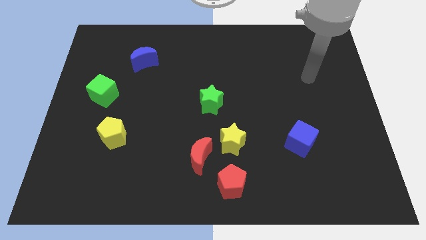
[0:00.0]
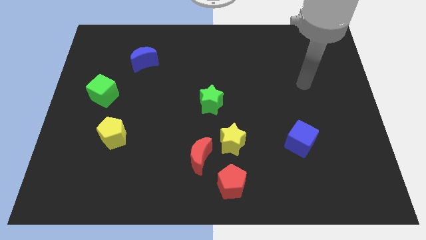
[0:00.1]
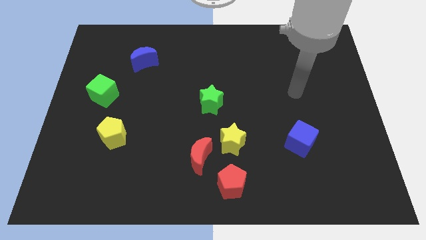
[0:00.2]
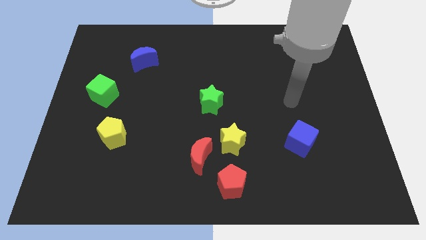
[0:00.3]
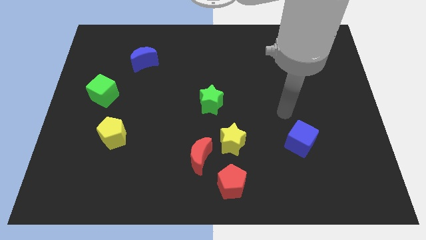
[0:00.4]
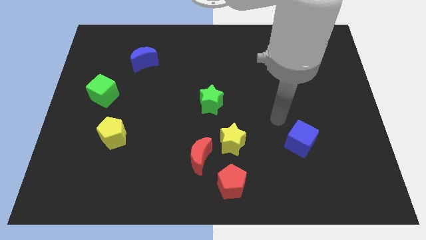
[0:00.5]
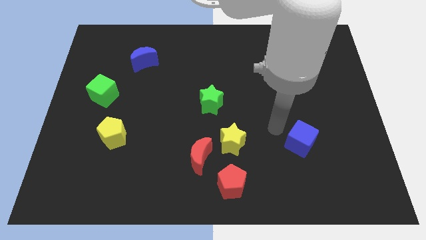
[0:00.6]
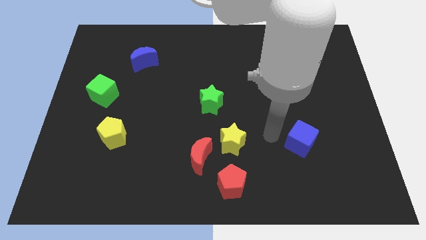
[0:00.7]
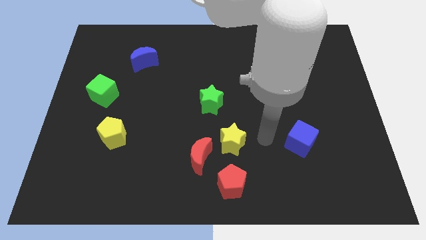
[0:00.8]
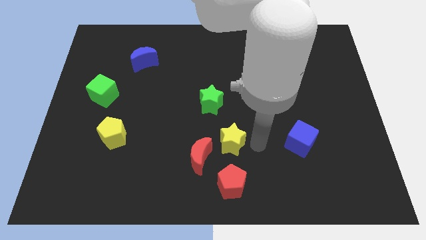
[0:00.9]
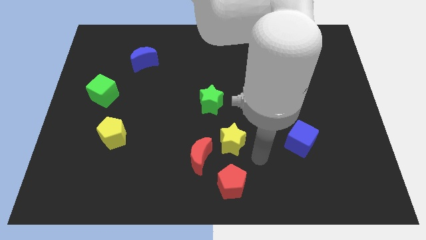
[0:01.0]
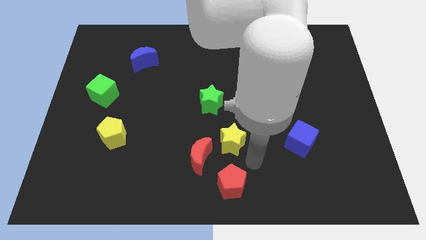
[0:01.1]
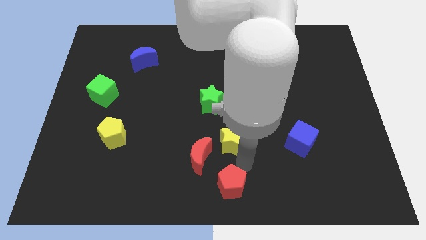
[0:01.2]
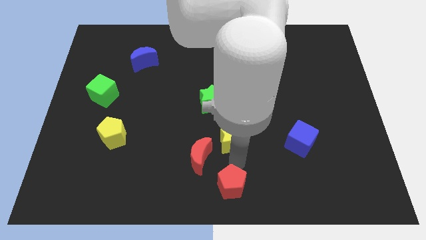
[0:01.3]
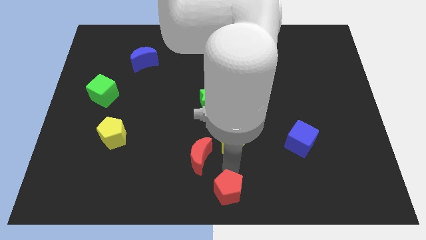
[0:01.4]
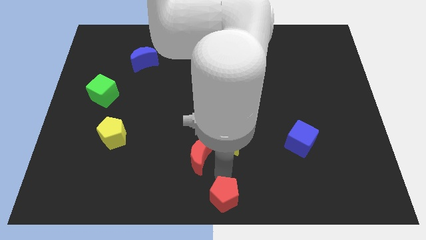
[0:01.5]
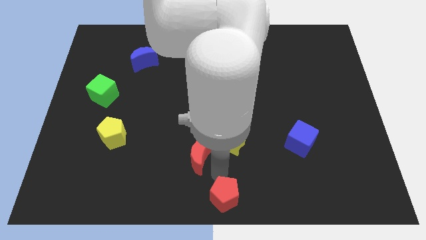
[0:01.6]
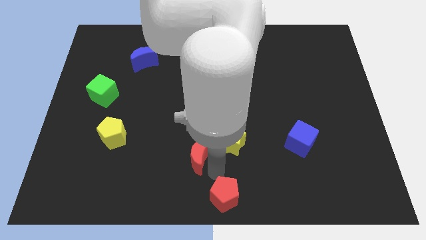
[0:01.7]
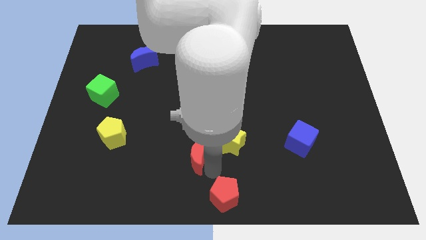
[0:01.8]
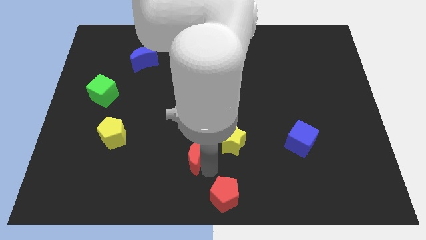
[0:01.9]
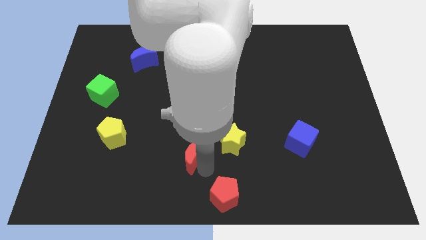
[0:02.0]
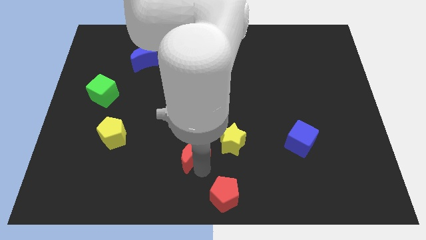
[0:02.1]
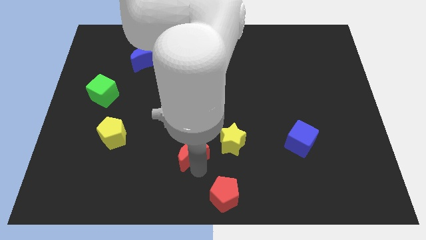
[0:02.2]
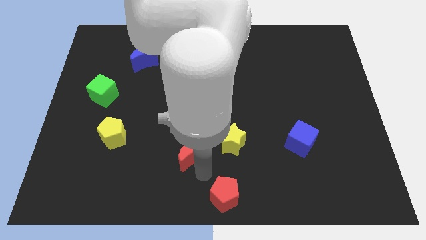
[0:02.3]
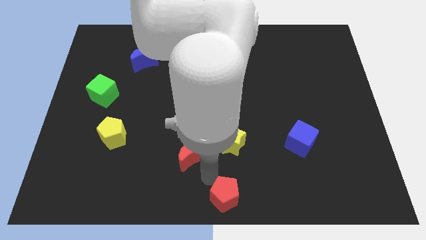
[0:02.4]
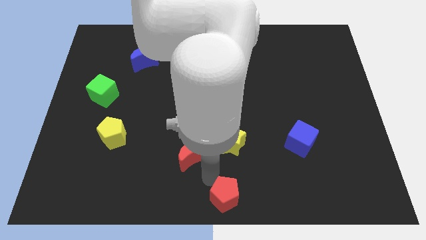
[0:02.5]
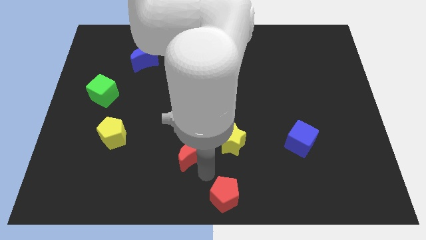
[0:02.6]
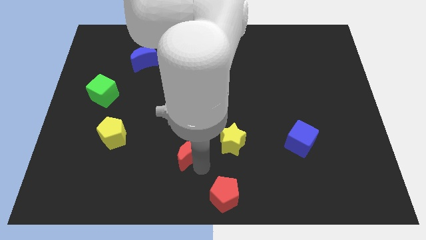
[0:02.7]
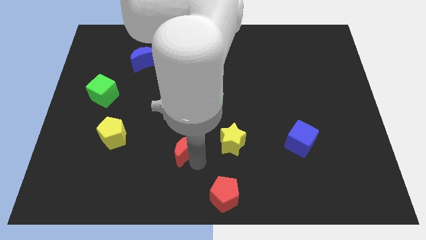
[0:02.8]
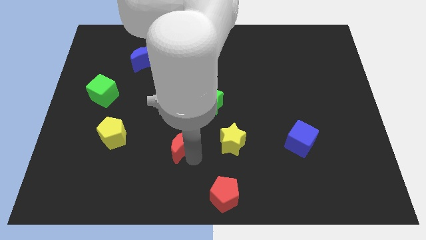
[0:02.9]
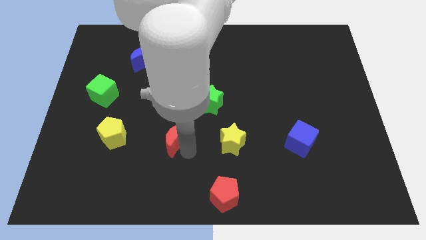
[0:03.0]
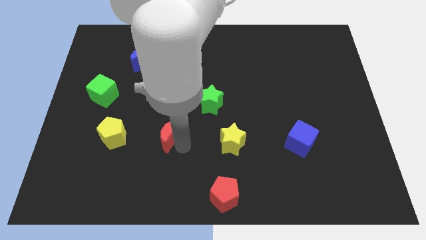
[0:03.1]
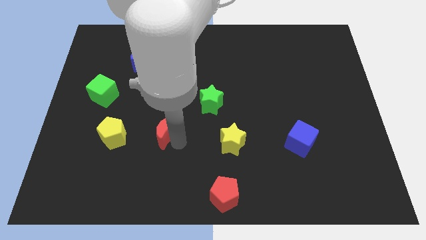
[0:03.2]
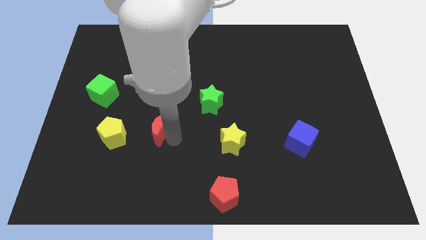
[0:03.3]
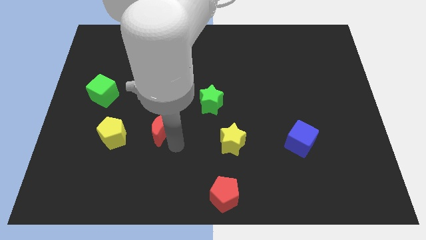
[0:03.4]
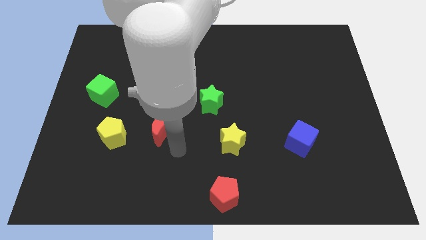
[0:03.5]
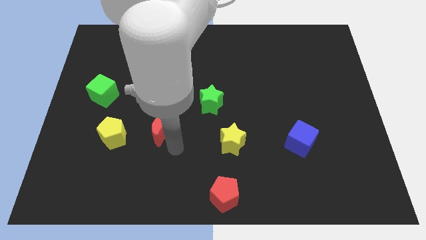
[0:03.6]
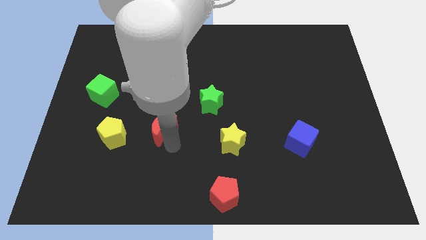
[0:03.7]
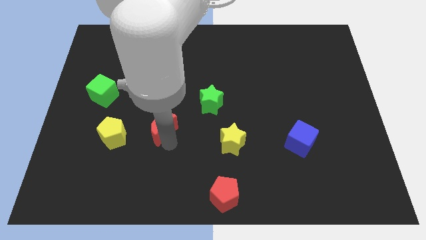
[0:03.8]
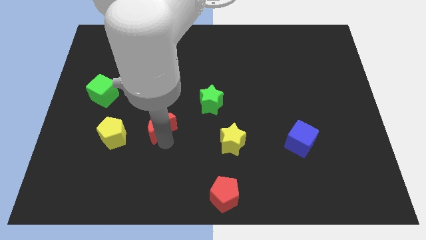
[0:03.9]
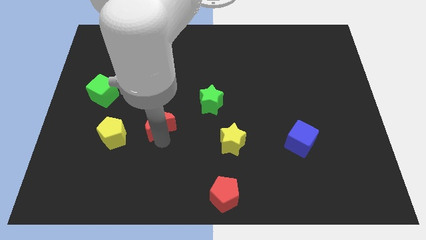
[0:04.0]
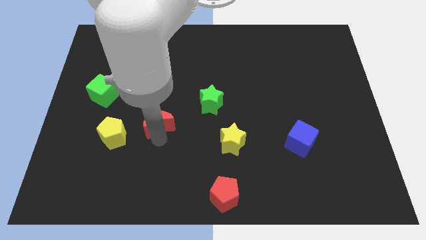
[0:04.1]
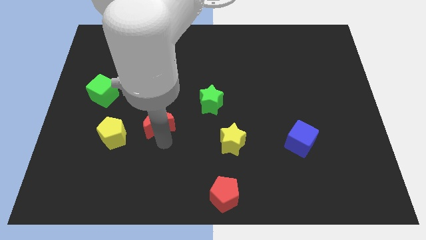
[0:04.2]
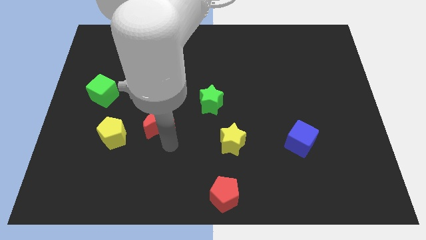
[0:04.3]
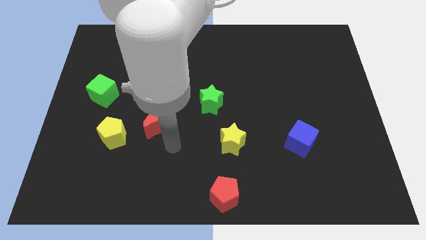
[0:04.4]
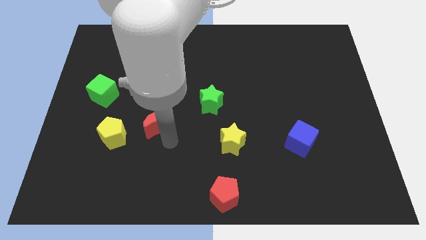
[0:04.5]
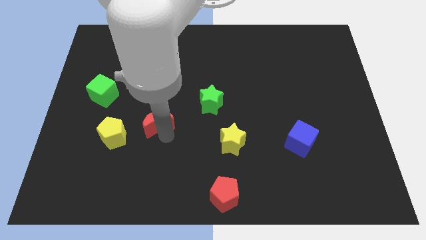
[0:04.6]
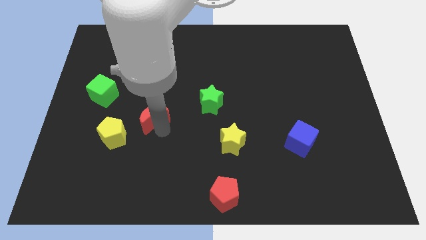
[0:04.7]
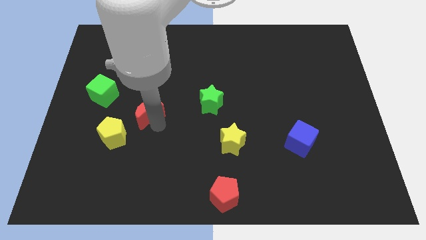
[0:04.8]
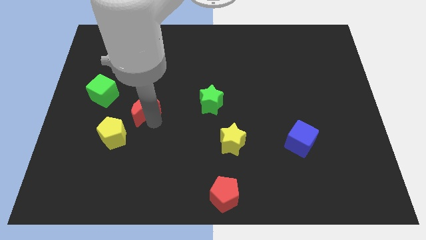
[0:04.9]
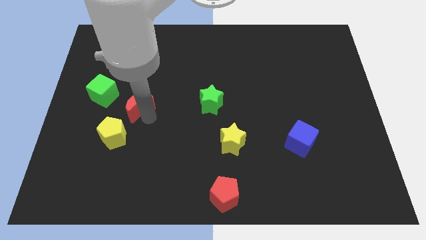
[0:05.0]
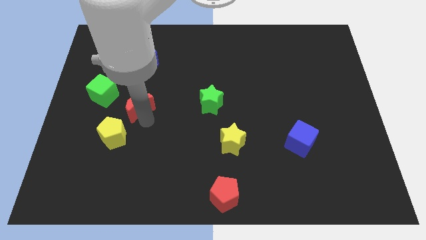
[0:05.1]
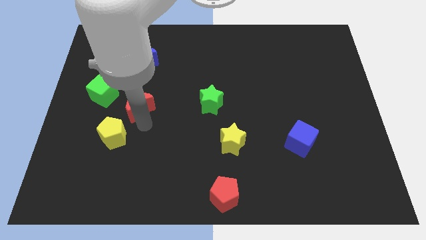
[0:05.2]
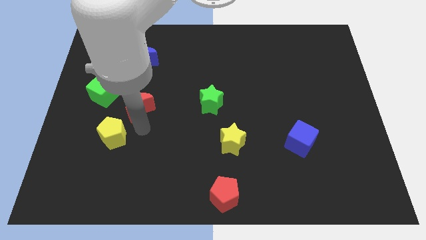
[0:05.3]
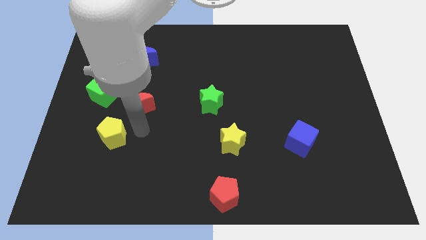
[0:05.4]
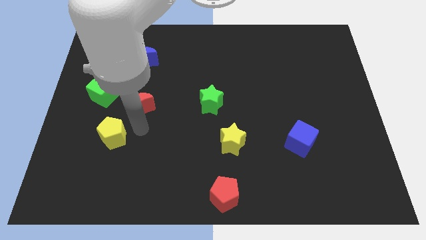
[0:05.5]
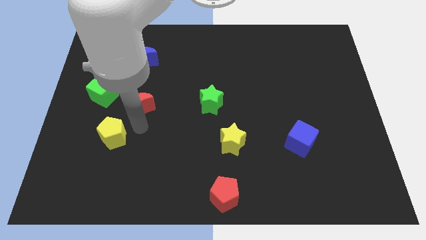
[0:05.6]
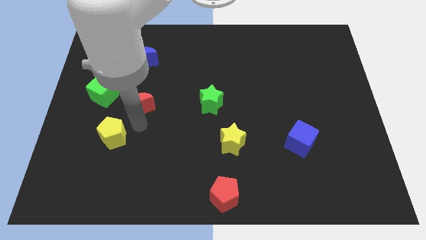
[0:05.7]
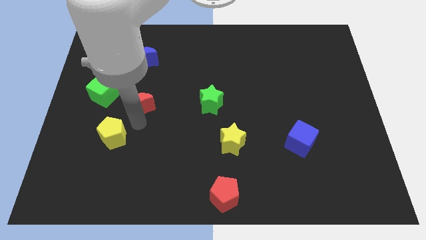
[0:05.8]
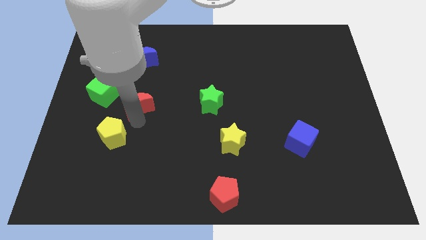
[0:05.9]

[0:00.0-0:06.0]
move the red moon up and left

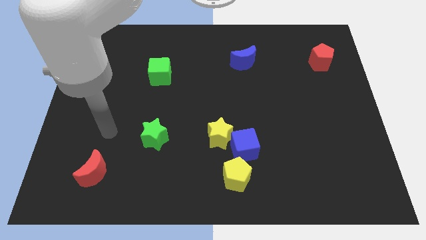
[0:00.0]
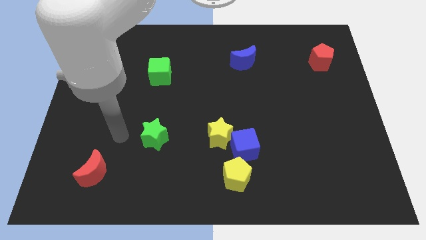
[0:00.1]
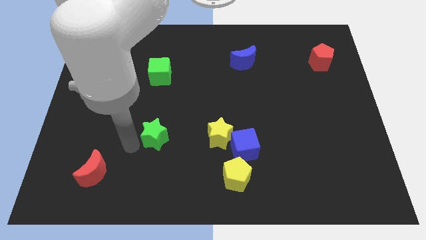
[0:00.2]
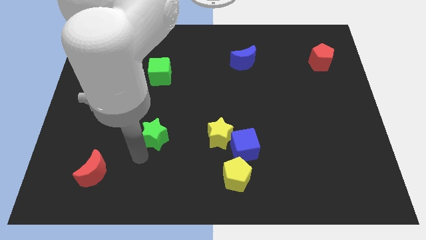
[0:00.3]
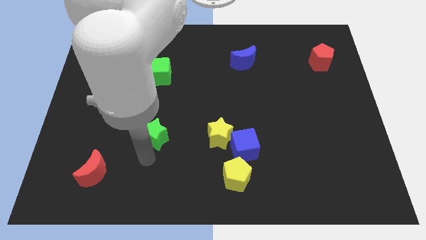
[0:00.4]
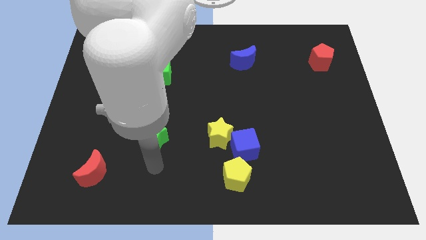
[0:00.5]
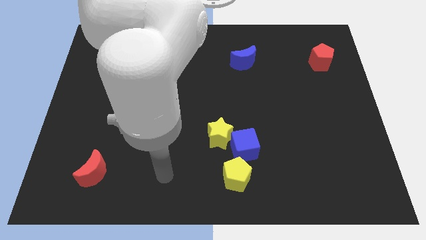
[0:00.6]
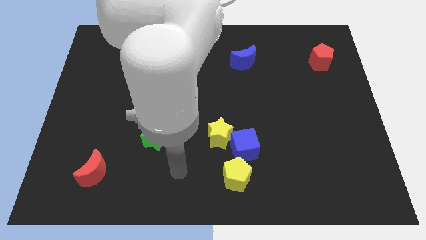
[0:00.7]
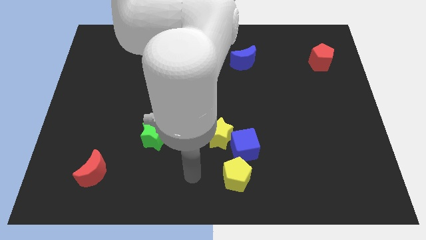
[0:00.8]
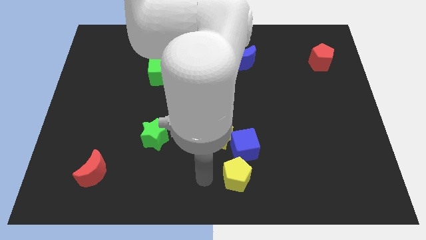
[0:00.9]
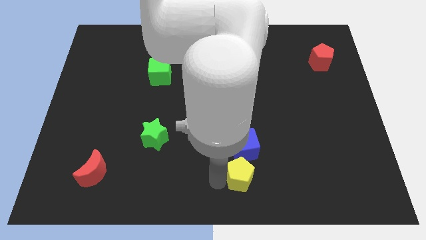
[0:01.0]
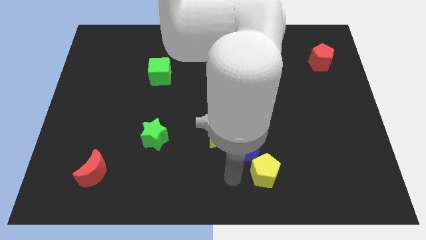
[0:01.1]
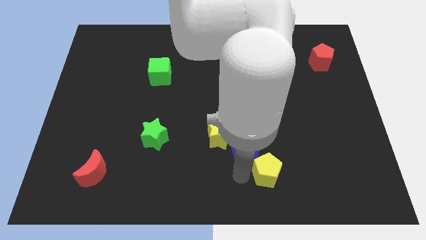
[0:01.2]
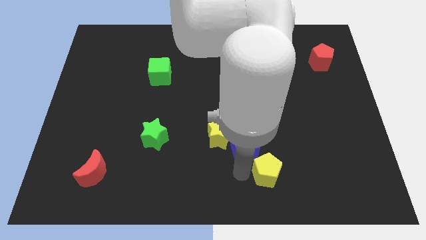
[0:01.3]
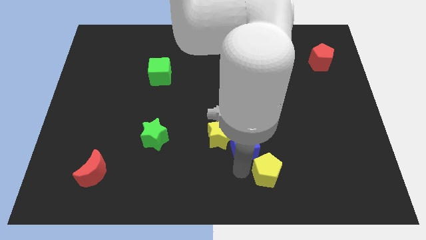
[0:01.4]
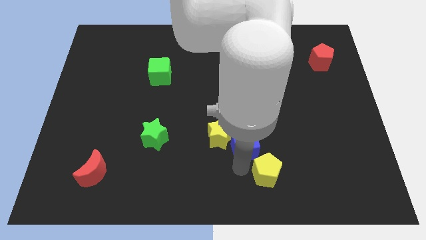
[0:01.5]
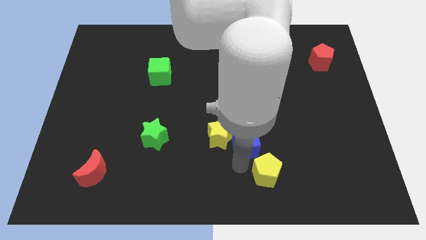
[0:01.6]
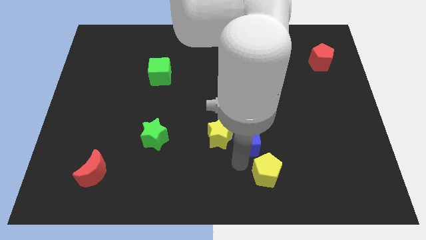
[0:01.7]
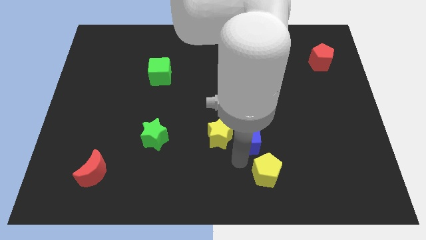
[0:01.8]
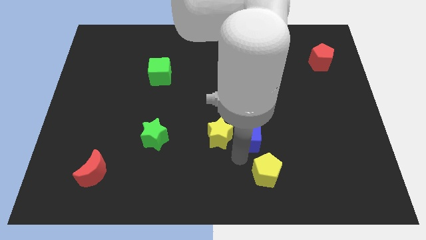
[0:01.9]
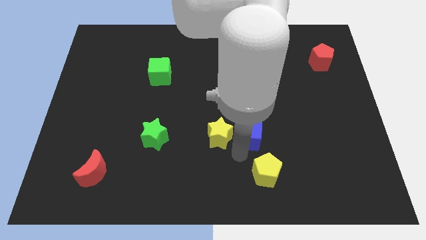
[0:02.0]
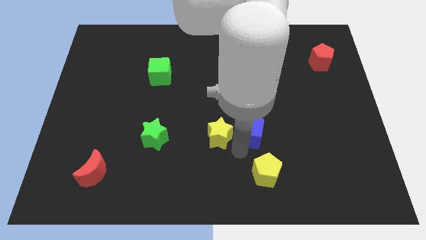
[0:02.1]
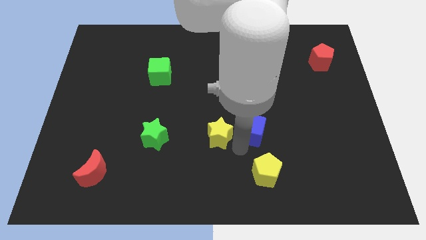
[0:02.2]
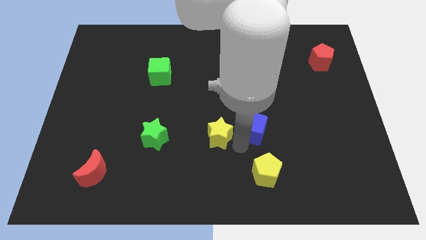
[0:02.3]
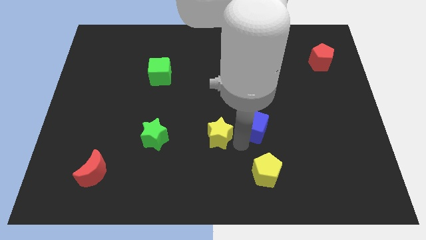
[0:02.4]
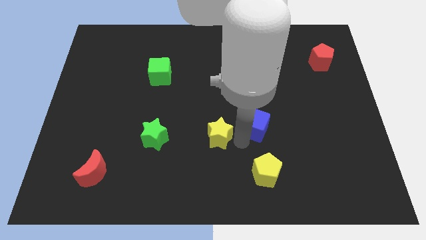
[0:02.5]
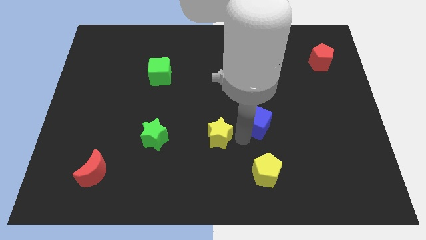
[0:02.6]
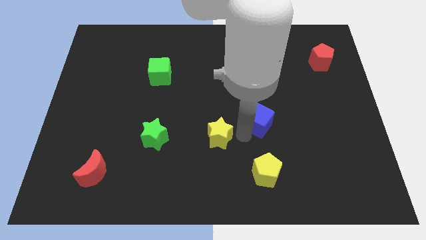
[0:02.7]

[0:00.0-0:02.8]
push the blue cube upwards and then to the right somewhat
